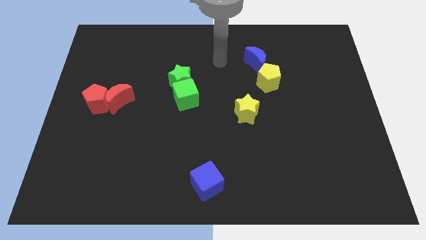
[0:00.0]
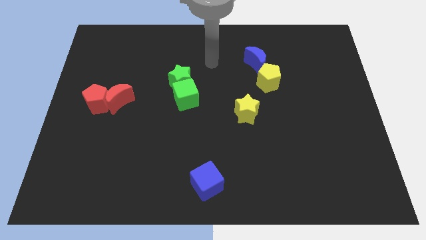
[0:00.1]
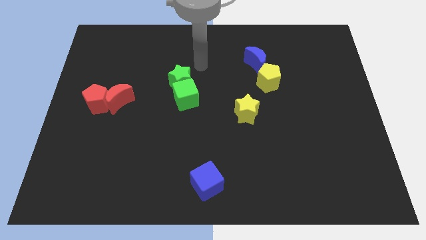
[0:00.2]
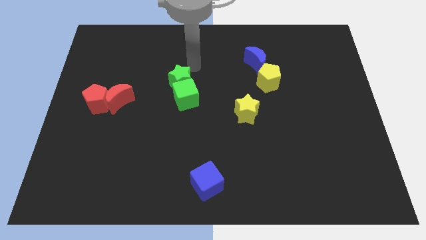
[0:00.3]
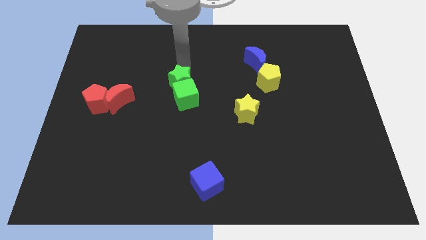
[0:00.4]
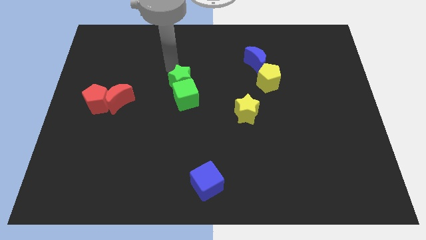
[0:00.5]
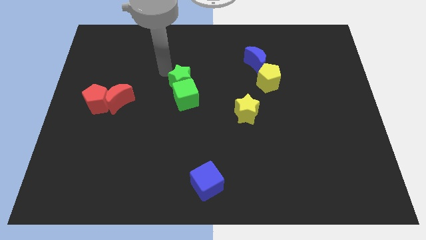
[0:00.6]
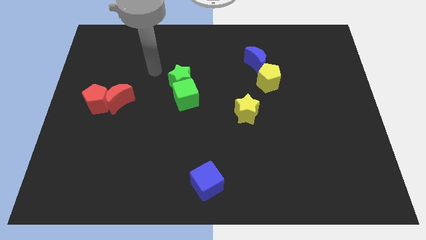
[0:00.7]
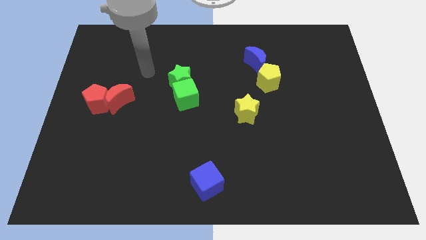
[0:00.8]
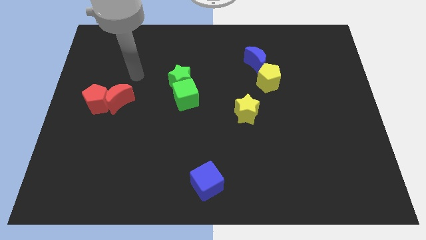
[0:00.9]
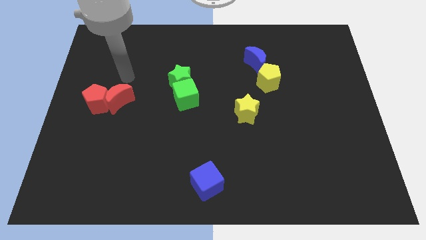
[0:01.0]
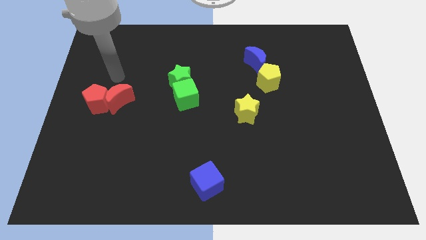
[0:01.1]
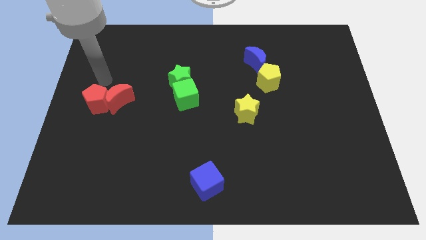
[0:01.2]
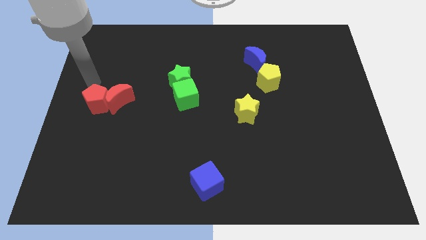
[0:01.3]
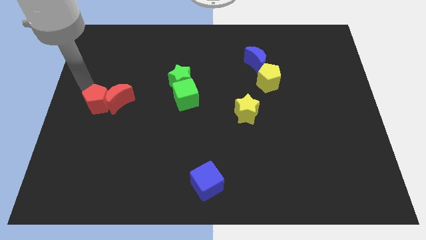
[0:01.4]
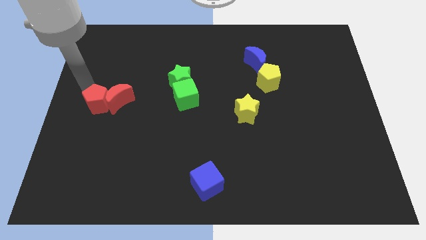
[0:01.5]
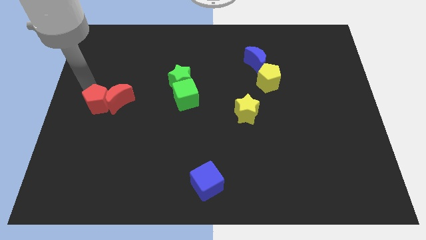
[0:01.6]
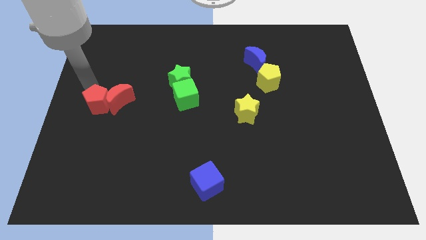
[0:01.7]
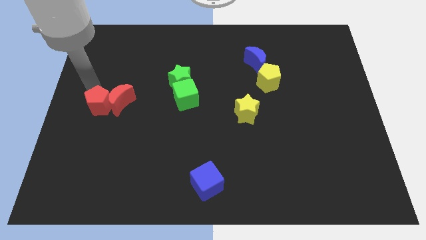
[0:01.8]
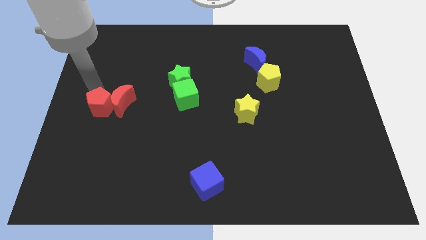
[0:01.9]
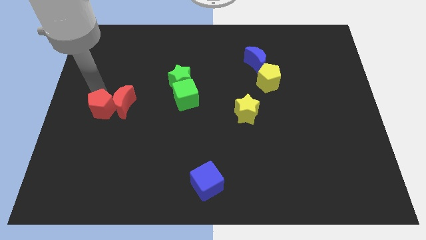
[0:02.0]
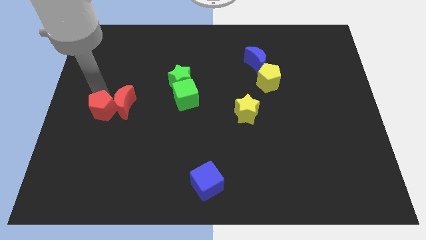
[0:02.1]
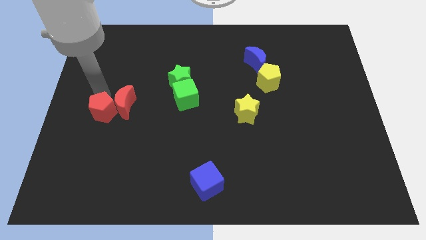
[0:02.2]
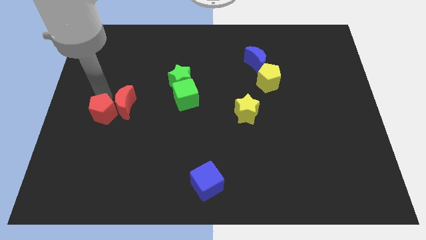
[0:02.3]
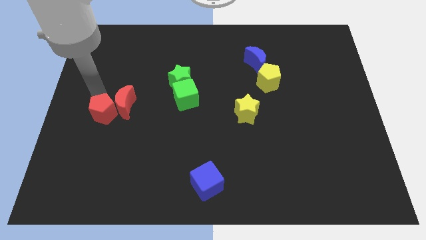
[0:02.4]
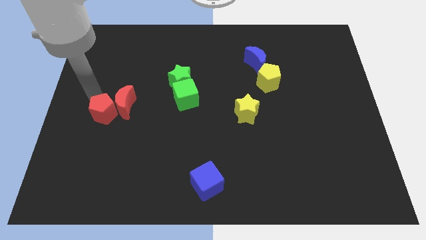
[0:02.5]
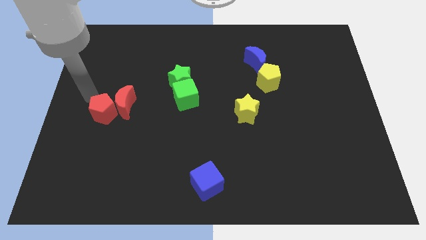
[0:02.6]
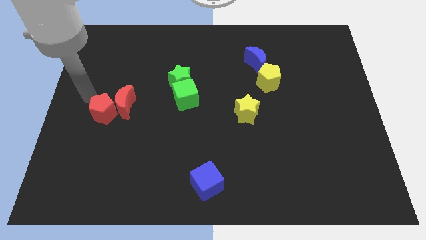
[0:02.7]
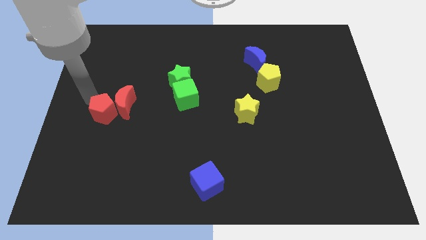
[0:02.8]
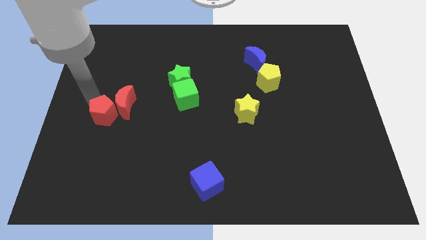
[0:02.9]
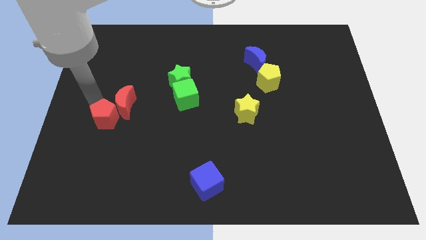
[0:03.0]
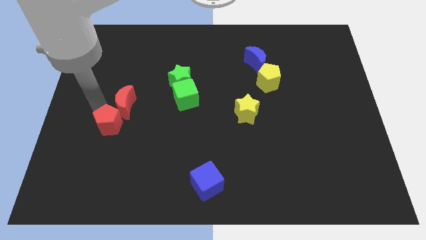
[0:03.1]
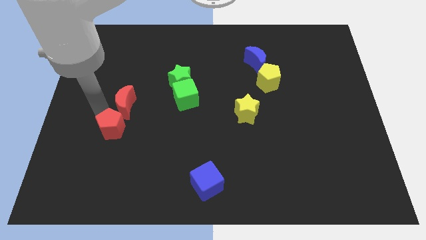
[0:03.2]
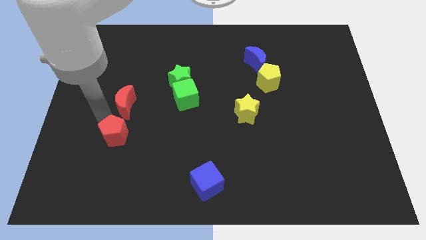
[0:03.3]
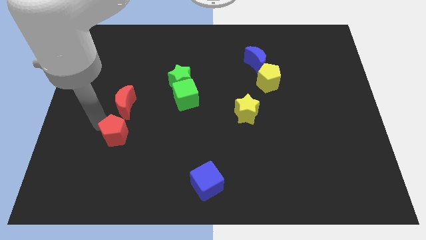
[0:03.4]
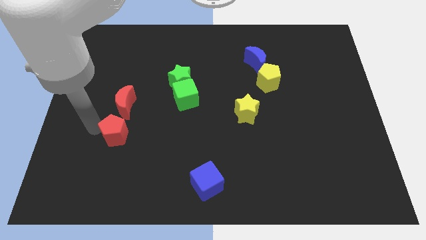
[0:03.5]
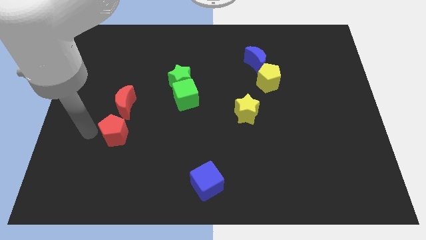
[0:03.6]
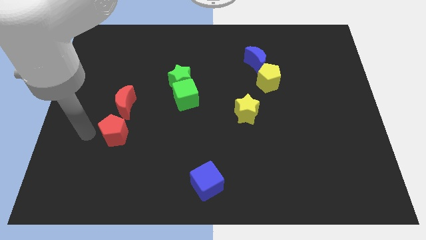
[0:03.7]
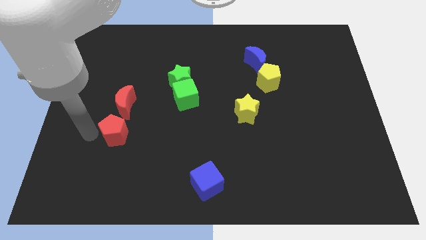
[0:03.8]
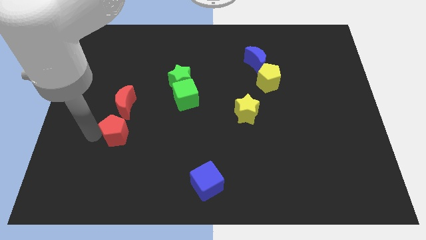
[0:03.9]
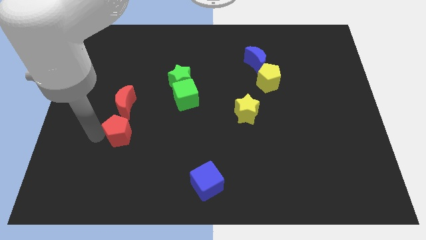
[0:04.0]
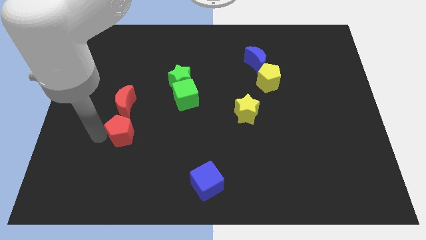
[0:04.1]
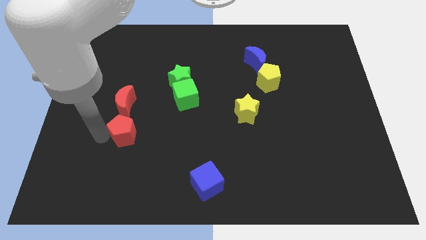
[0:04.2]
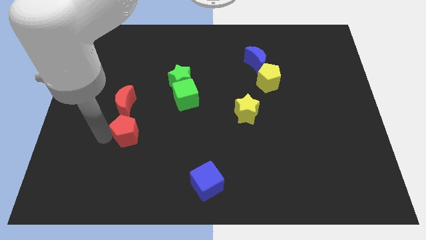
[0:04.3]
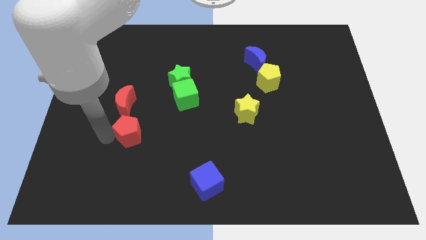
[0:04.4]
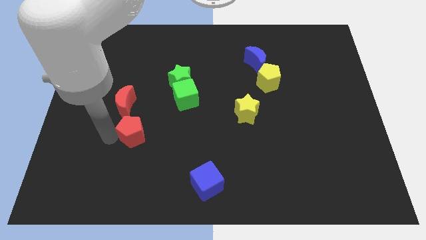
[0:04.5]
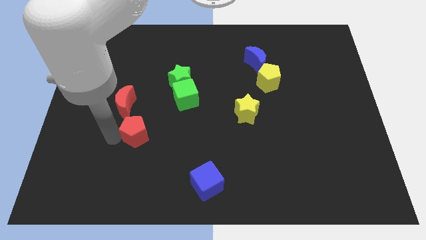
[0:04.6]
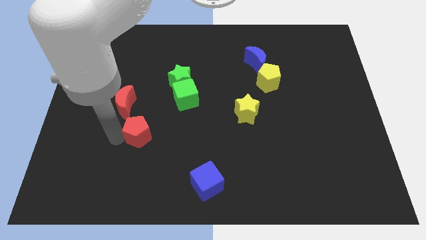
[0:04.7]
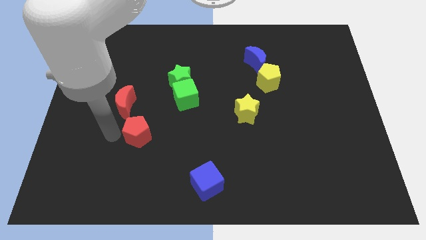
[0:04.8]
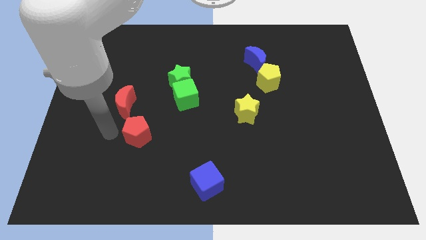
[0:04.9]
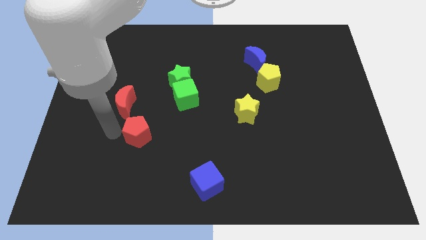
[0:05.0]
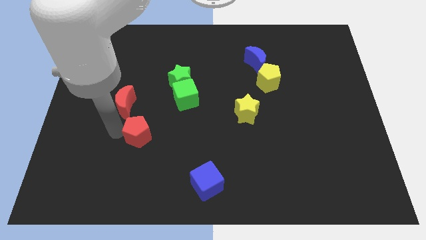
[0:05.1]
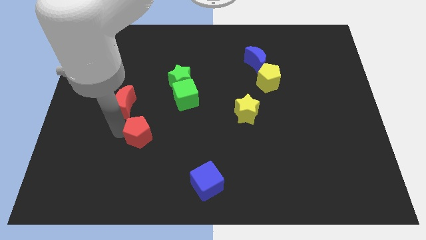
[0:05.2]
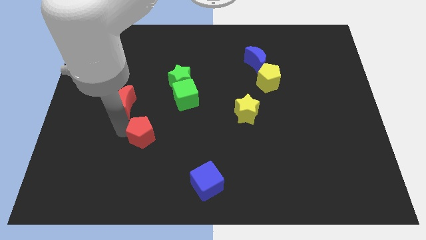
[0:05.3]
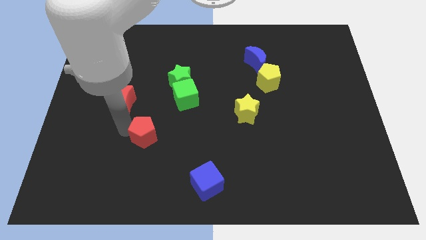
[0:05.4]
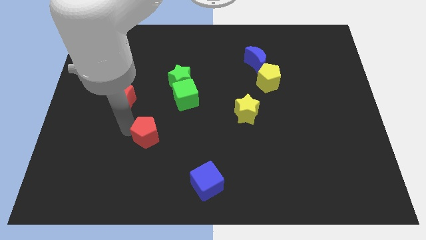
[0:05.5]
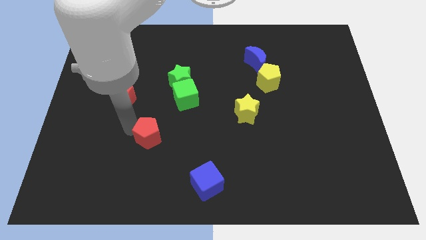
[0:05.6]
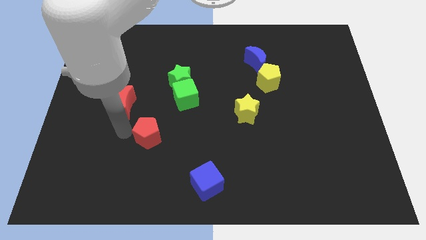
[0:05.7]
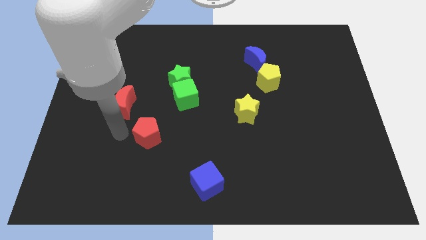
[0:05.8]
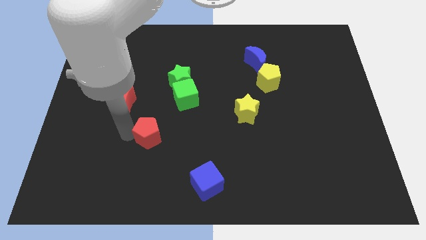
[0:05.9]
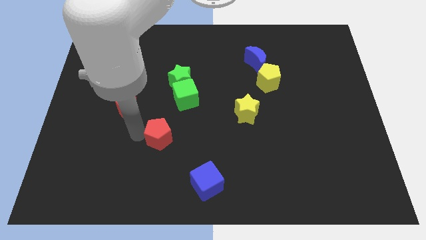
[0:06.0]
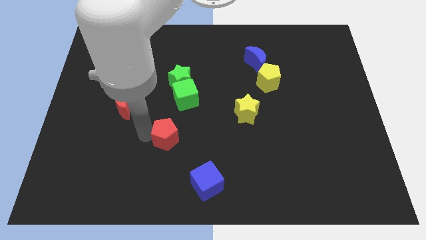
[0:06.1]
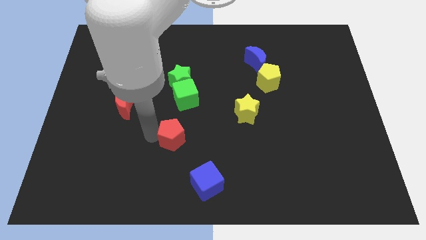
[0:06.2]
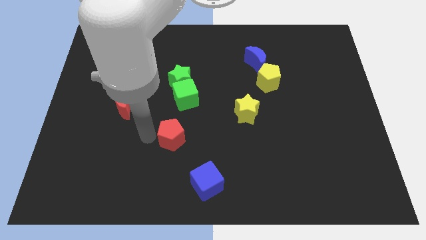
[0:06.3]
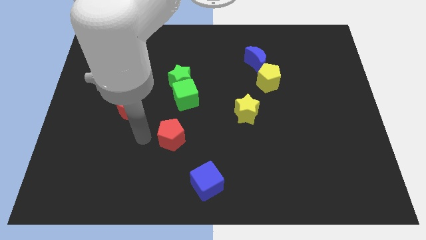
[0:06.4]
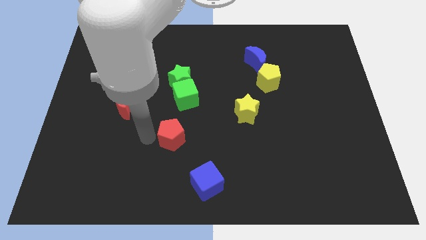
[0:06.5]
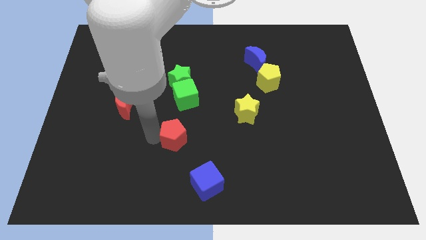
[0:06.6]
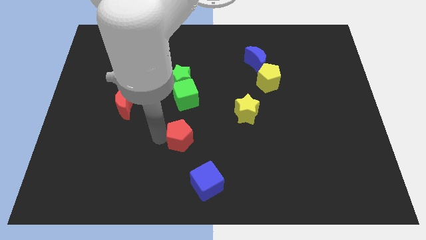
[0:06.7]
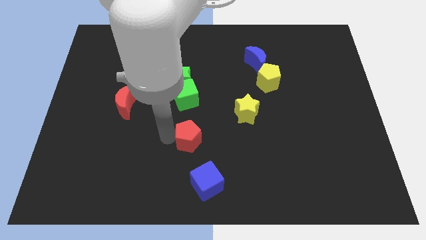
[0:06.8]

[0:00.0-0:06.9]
put the red pentagon to the top of the blue cube
